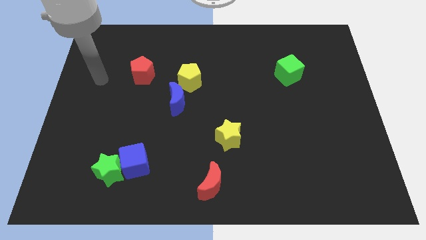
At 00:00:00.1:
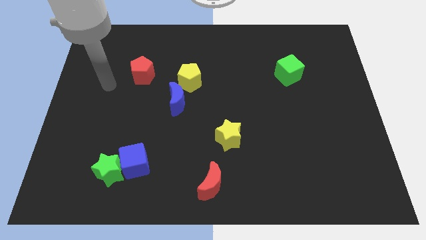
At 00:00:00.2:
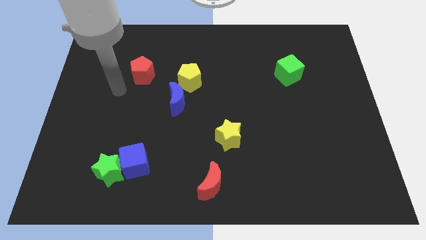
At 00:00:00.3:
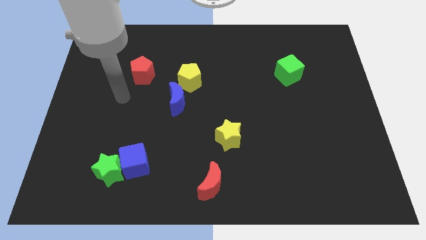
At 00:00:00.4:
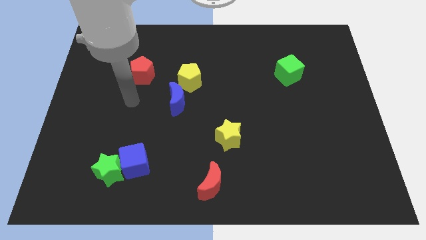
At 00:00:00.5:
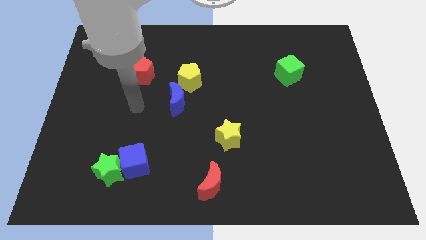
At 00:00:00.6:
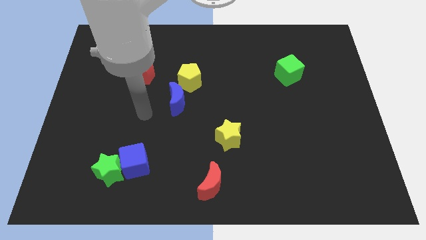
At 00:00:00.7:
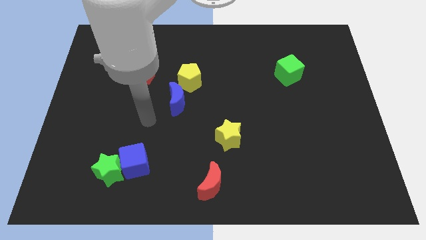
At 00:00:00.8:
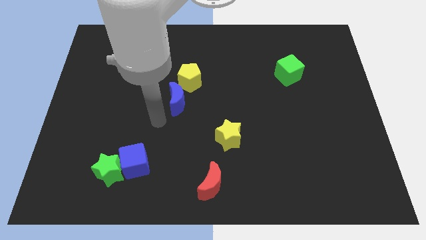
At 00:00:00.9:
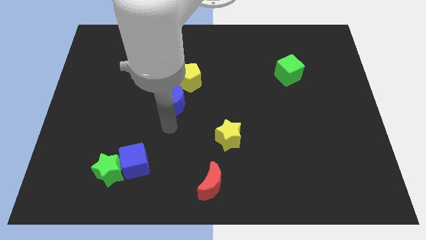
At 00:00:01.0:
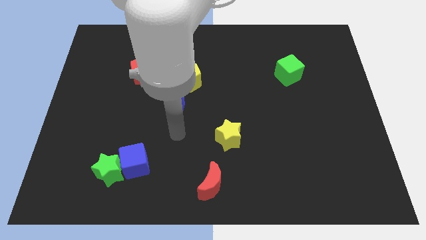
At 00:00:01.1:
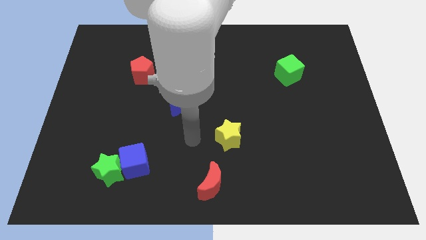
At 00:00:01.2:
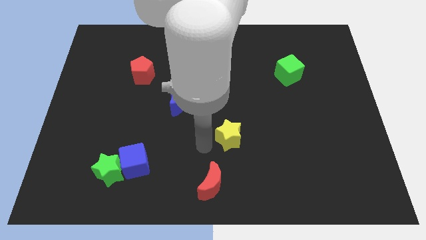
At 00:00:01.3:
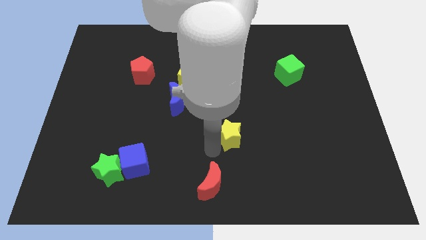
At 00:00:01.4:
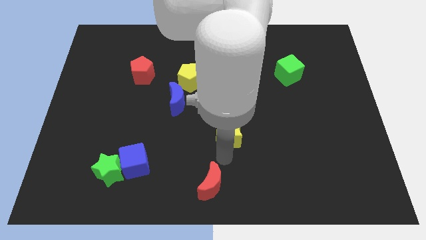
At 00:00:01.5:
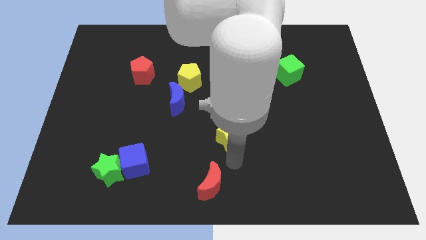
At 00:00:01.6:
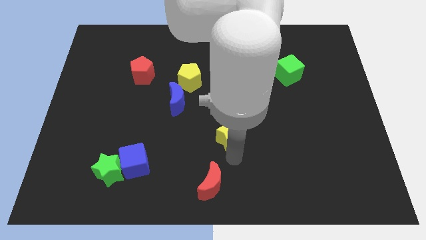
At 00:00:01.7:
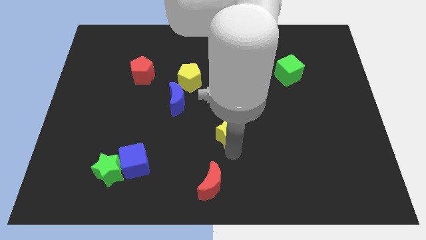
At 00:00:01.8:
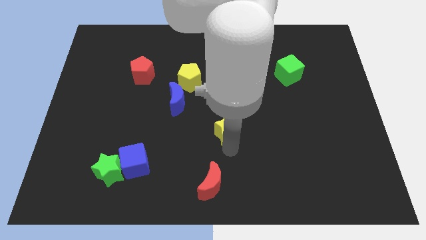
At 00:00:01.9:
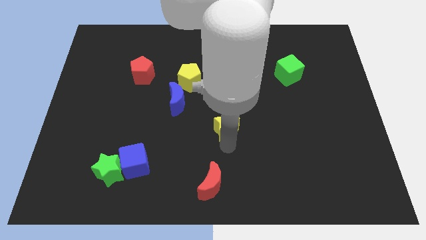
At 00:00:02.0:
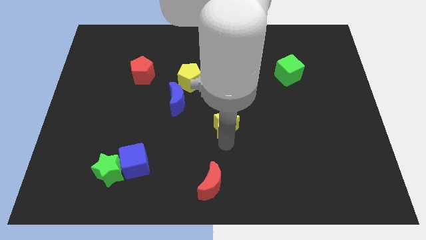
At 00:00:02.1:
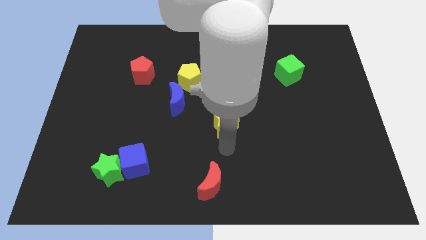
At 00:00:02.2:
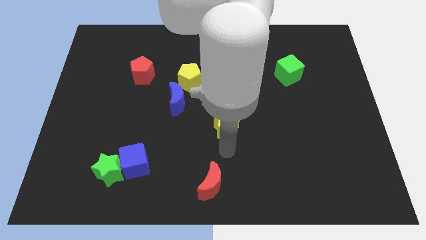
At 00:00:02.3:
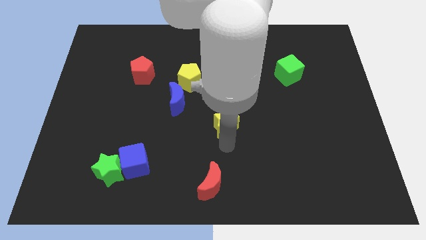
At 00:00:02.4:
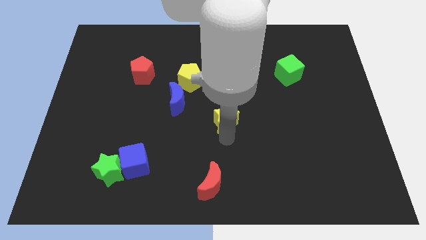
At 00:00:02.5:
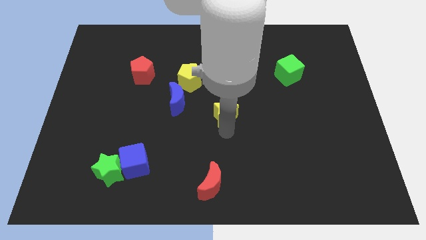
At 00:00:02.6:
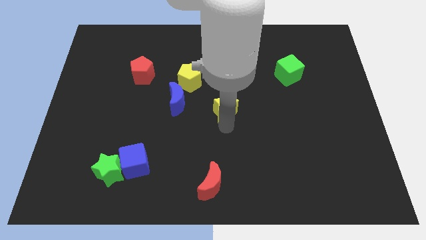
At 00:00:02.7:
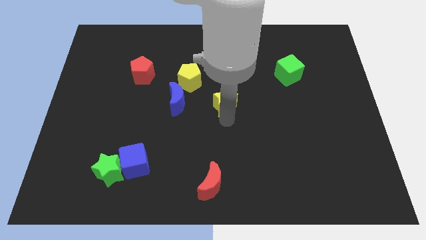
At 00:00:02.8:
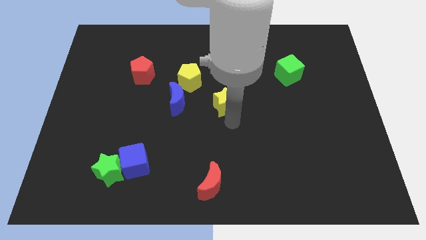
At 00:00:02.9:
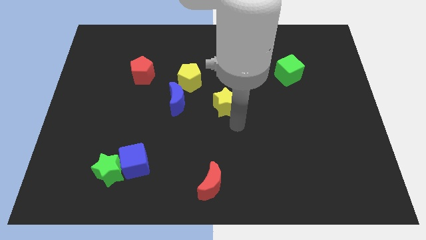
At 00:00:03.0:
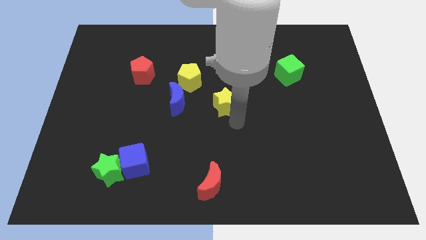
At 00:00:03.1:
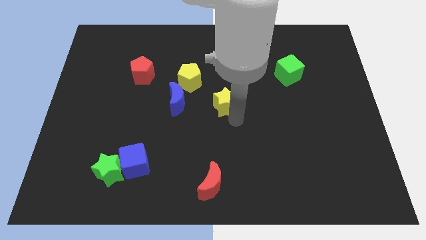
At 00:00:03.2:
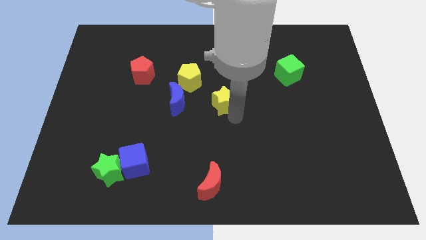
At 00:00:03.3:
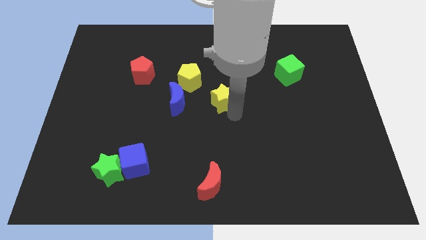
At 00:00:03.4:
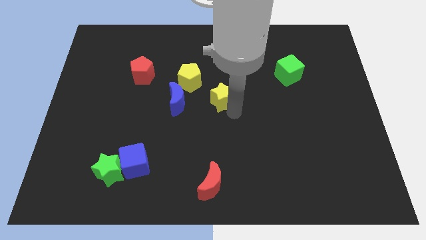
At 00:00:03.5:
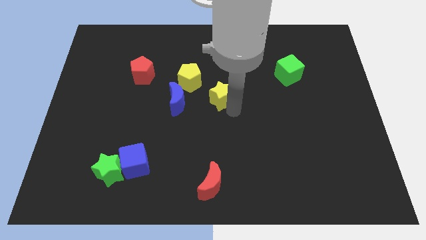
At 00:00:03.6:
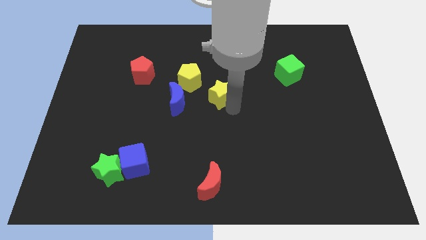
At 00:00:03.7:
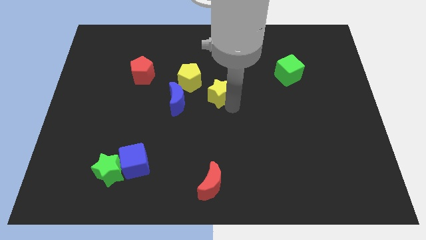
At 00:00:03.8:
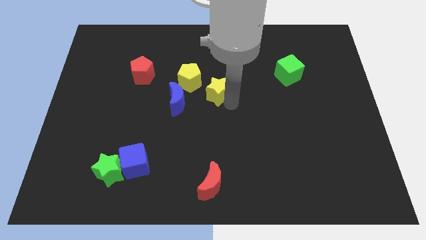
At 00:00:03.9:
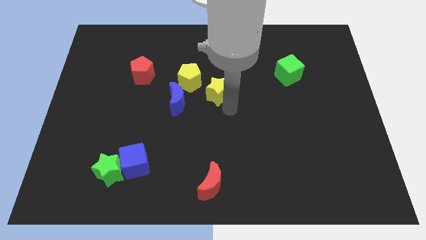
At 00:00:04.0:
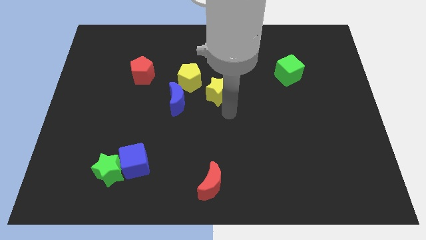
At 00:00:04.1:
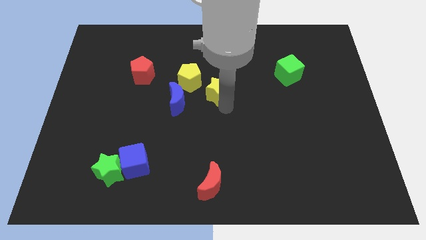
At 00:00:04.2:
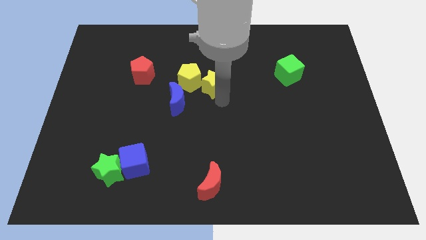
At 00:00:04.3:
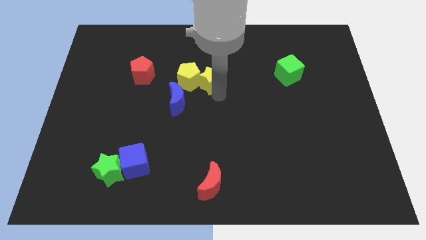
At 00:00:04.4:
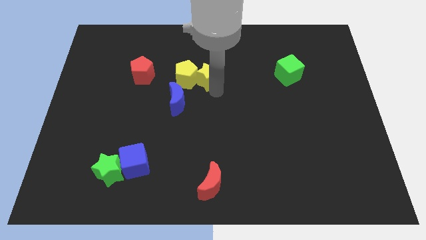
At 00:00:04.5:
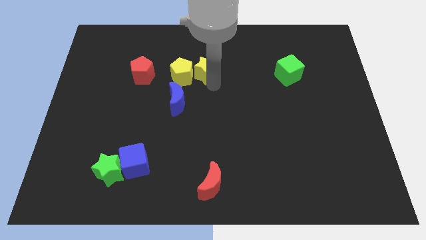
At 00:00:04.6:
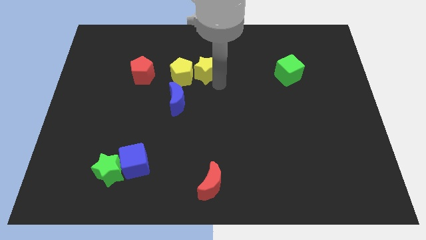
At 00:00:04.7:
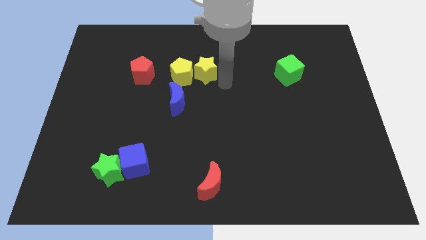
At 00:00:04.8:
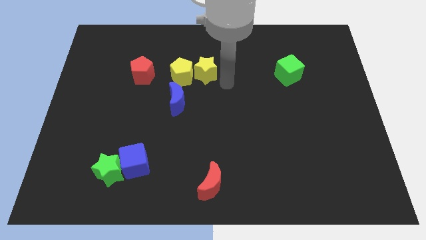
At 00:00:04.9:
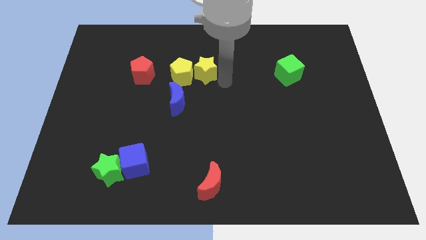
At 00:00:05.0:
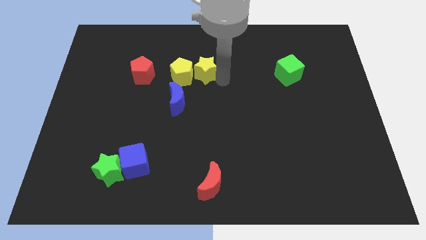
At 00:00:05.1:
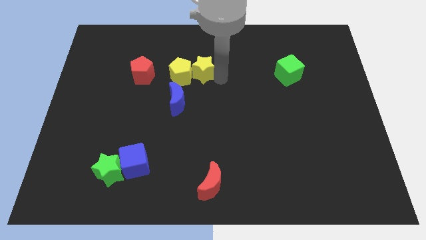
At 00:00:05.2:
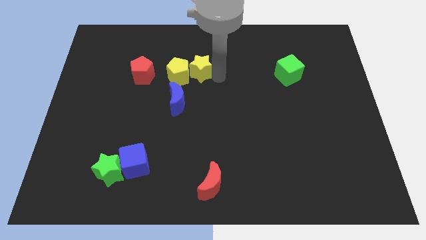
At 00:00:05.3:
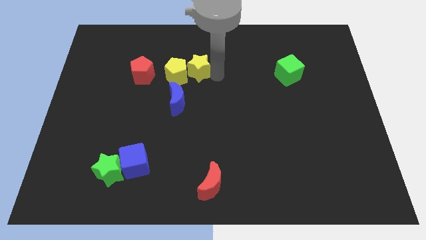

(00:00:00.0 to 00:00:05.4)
slide the yellow star to the top of the blue moon

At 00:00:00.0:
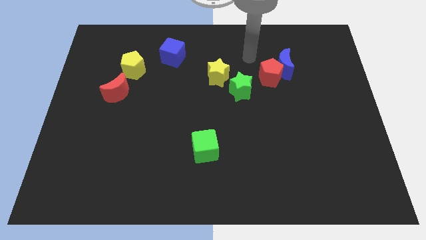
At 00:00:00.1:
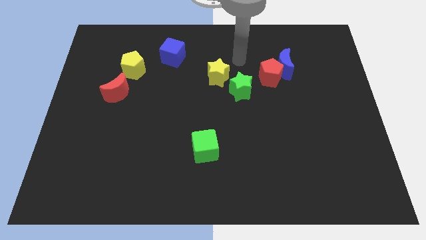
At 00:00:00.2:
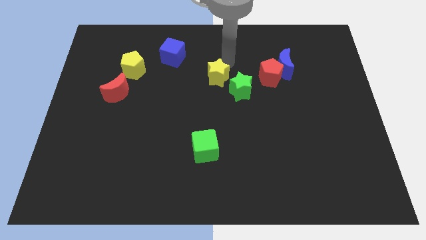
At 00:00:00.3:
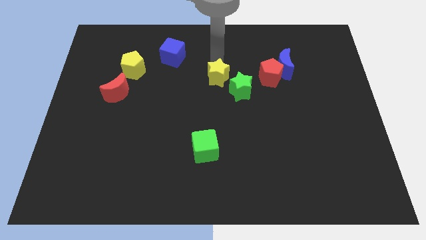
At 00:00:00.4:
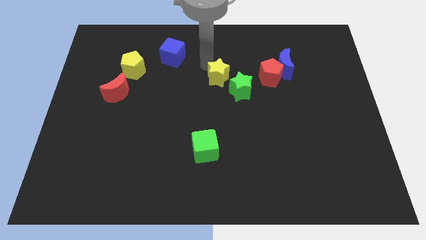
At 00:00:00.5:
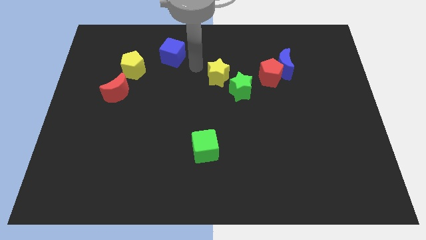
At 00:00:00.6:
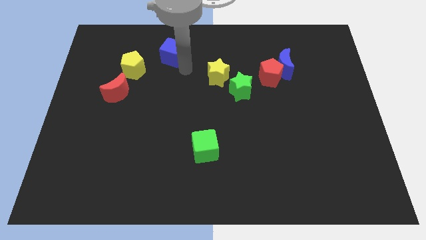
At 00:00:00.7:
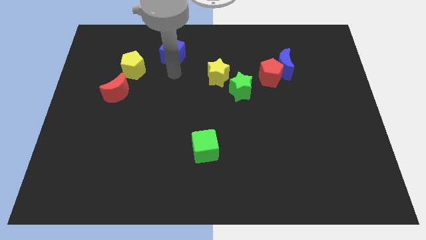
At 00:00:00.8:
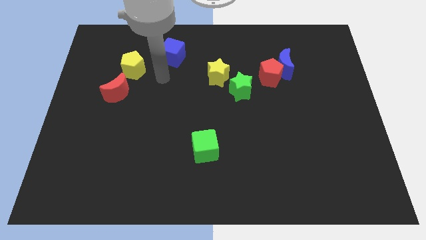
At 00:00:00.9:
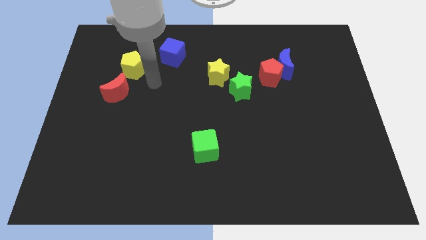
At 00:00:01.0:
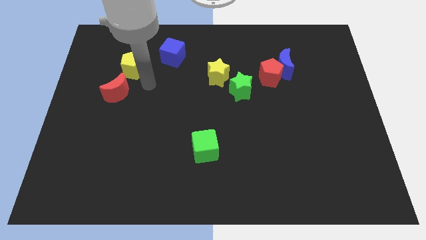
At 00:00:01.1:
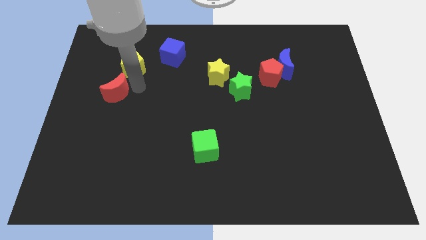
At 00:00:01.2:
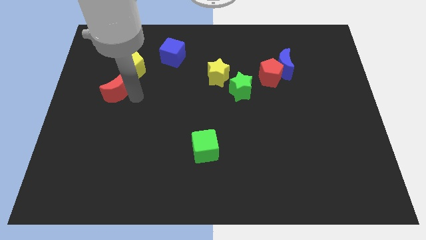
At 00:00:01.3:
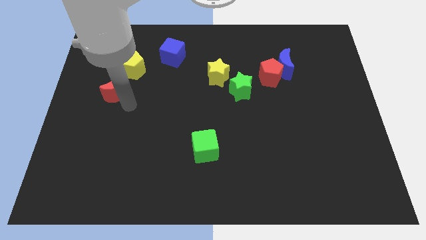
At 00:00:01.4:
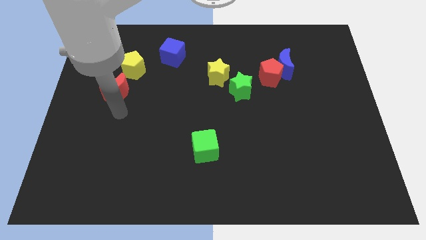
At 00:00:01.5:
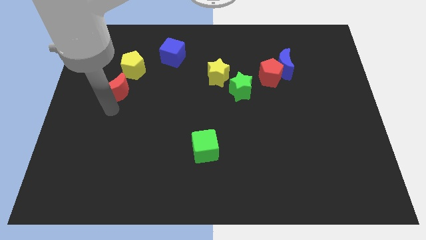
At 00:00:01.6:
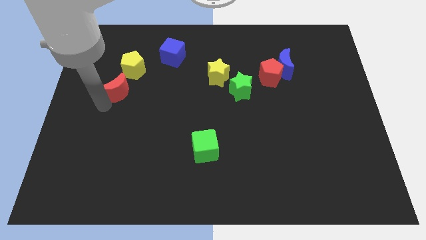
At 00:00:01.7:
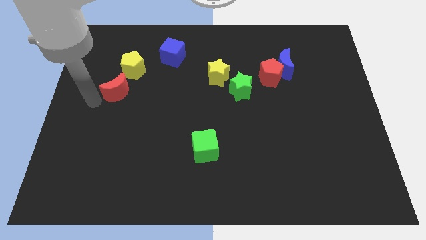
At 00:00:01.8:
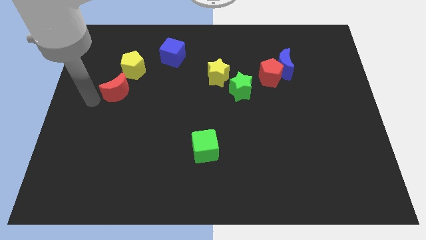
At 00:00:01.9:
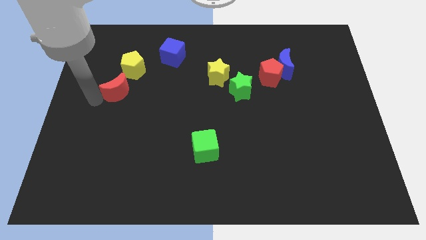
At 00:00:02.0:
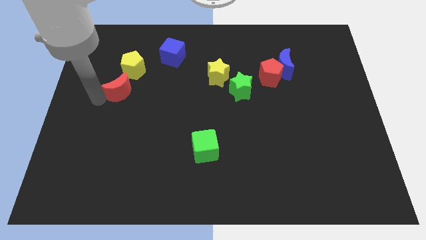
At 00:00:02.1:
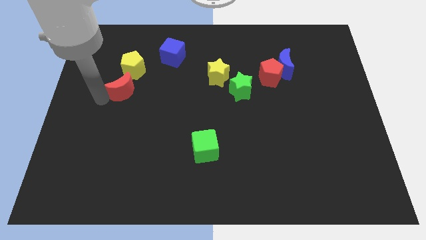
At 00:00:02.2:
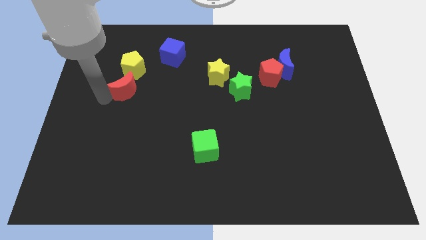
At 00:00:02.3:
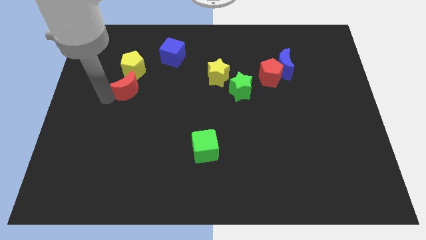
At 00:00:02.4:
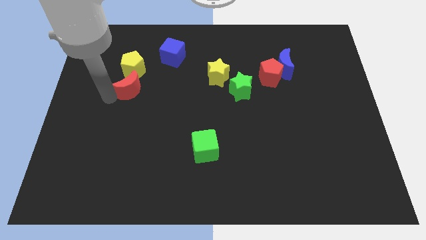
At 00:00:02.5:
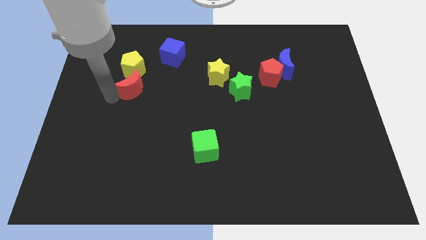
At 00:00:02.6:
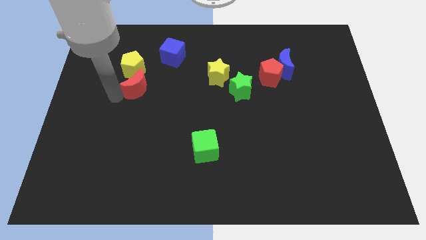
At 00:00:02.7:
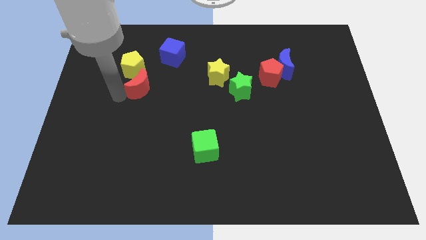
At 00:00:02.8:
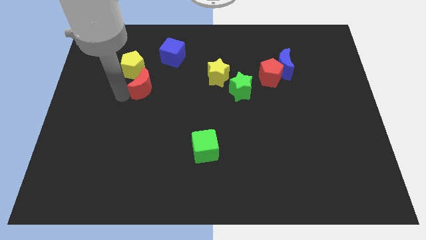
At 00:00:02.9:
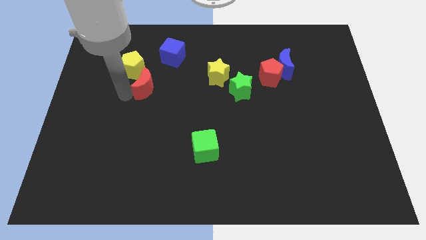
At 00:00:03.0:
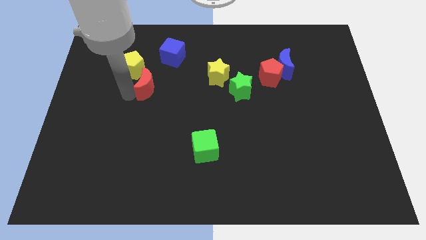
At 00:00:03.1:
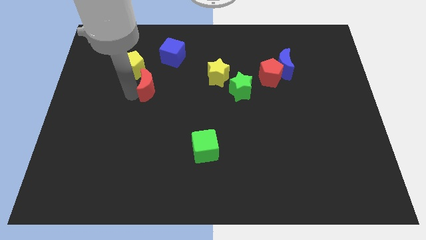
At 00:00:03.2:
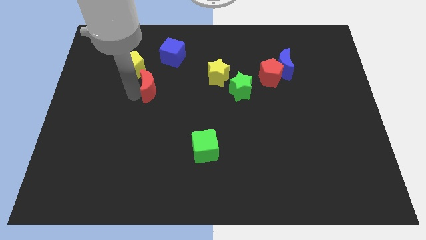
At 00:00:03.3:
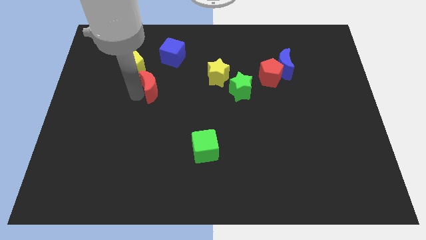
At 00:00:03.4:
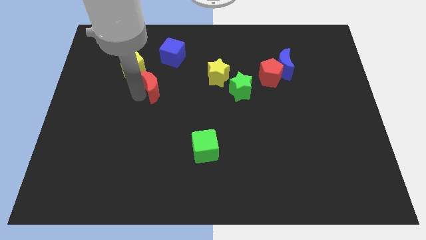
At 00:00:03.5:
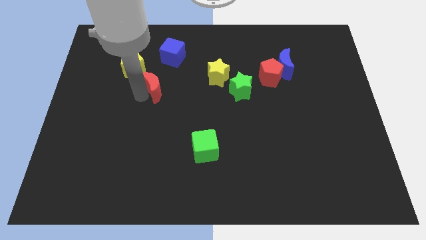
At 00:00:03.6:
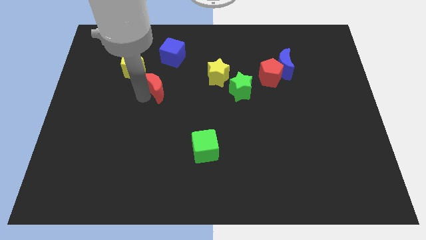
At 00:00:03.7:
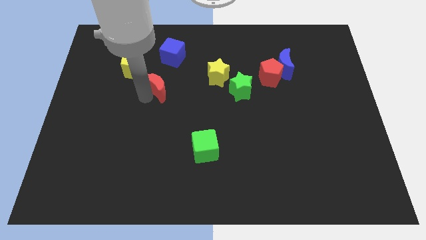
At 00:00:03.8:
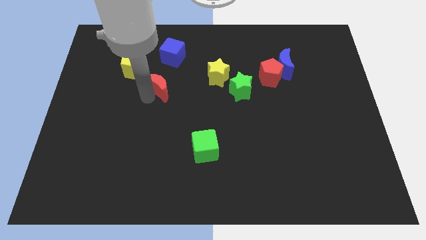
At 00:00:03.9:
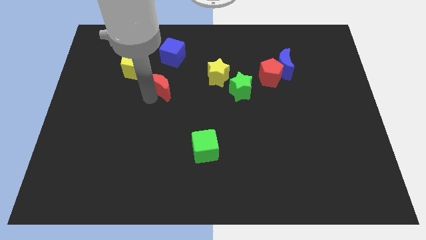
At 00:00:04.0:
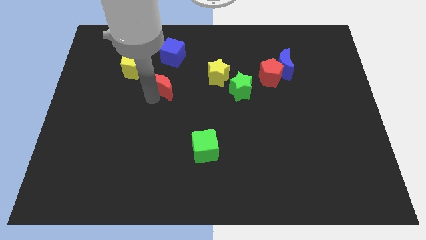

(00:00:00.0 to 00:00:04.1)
slide the red moon left of the yellow star
